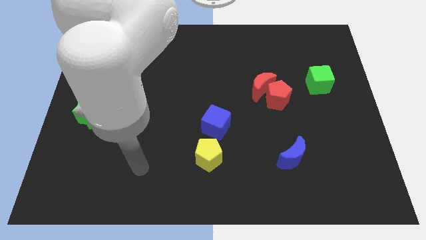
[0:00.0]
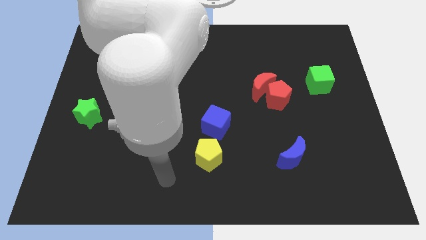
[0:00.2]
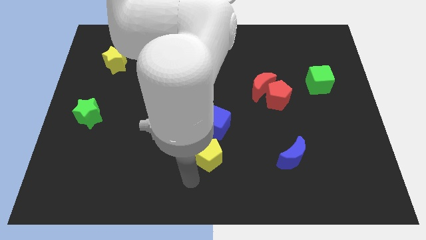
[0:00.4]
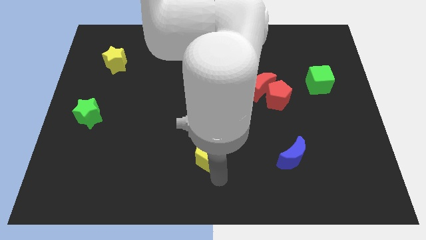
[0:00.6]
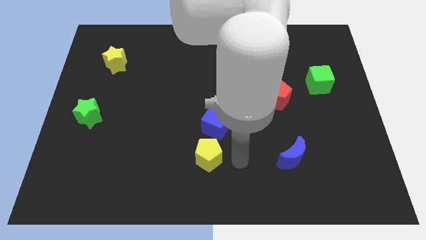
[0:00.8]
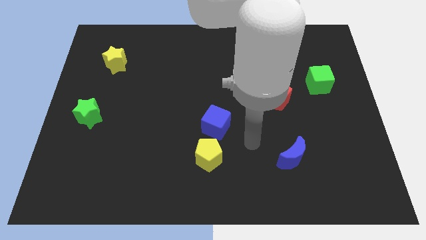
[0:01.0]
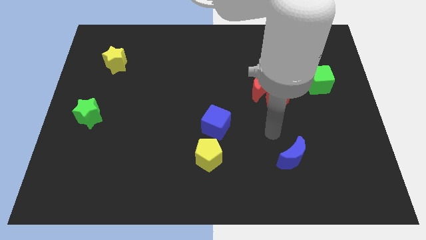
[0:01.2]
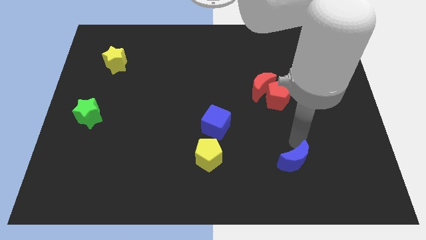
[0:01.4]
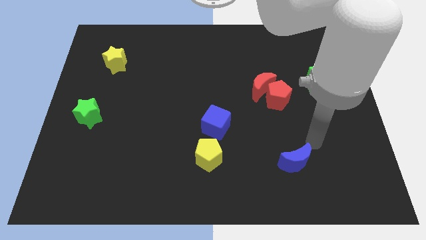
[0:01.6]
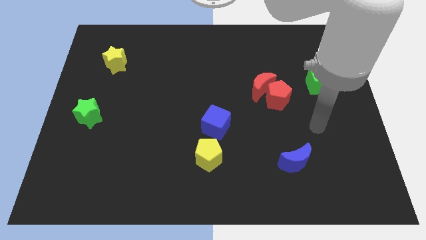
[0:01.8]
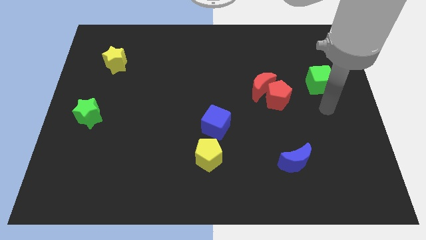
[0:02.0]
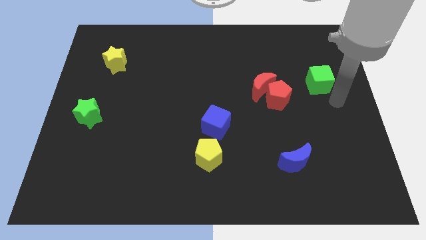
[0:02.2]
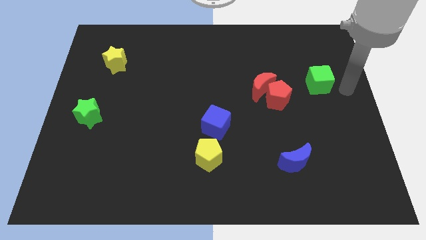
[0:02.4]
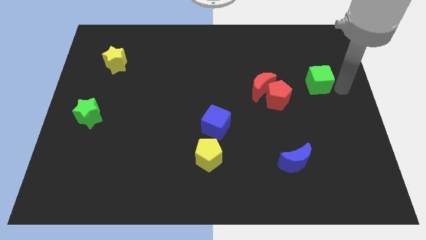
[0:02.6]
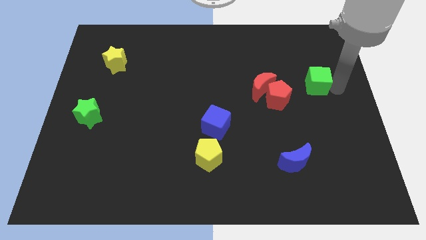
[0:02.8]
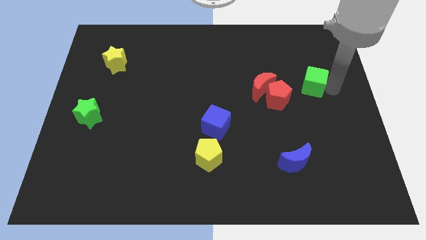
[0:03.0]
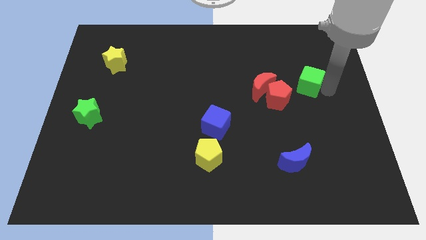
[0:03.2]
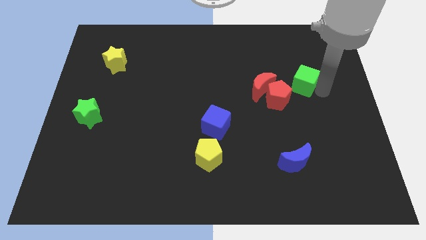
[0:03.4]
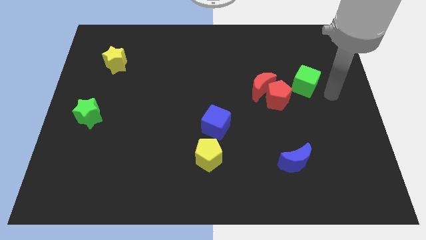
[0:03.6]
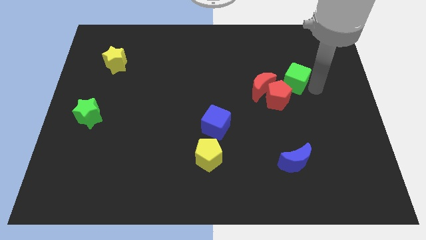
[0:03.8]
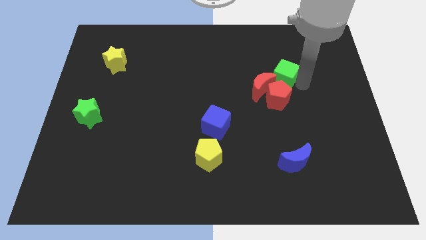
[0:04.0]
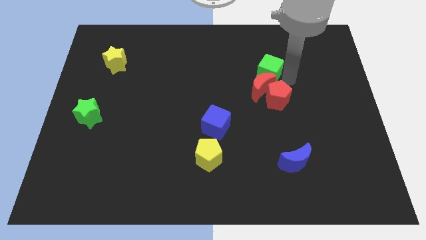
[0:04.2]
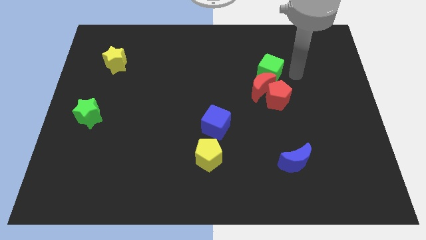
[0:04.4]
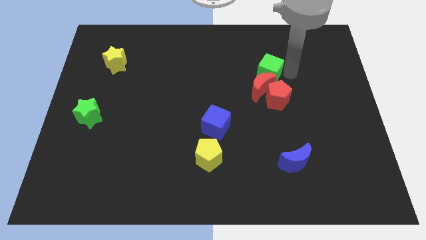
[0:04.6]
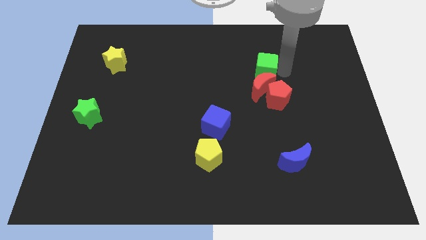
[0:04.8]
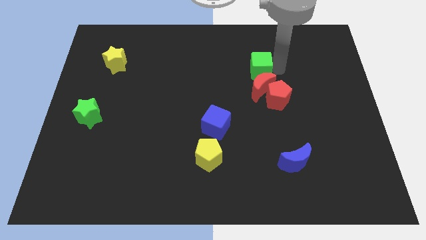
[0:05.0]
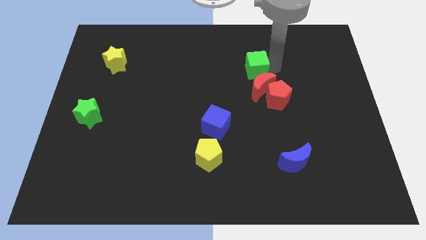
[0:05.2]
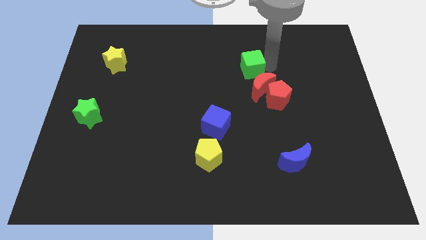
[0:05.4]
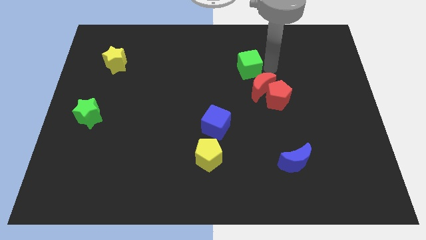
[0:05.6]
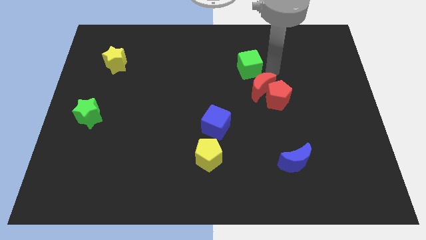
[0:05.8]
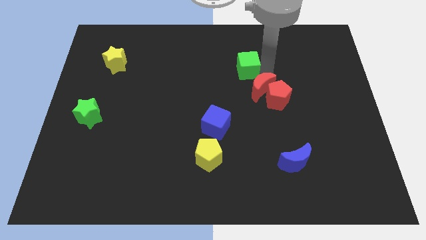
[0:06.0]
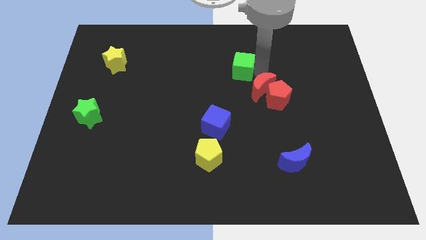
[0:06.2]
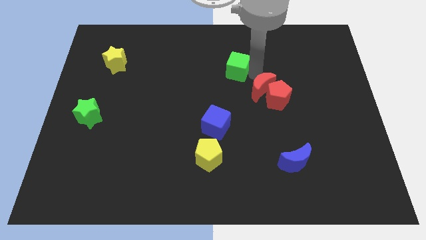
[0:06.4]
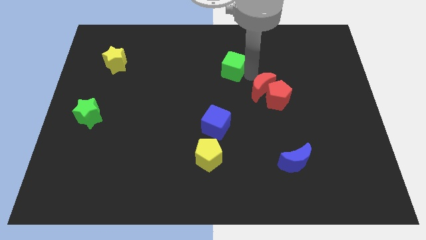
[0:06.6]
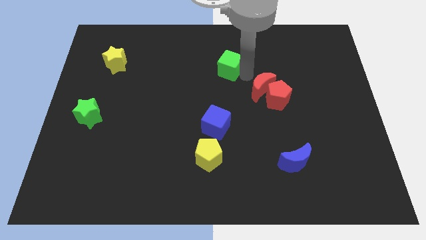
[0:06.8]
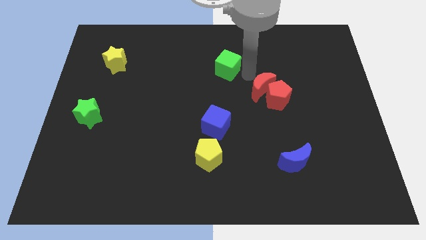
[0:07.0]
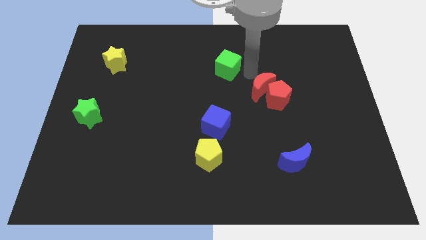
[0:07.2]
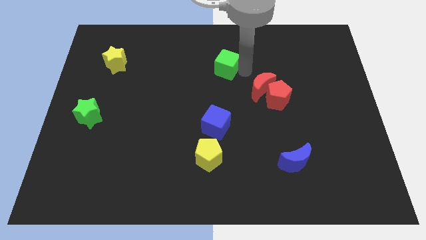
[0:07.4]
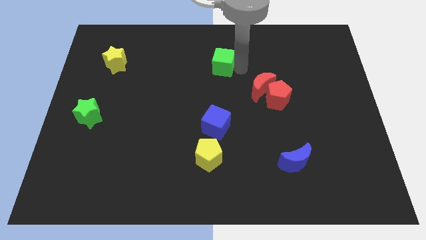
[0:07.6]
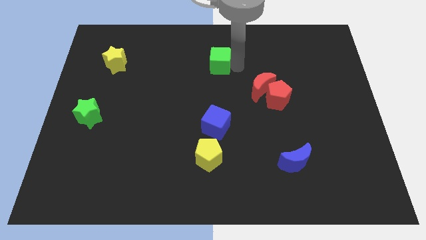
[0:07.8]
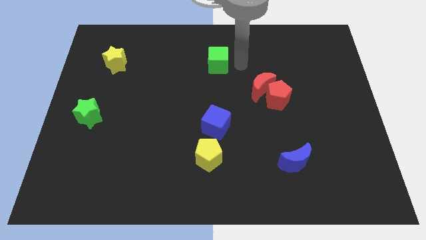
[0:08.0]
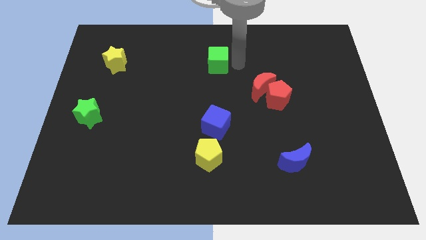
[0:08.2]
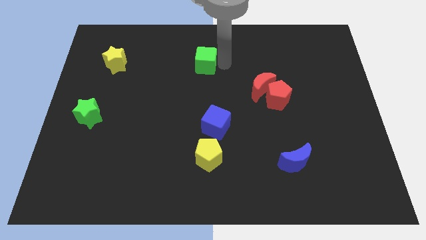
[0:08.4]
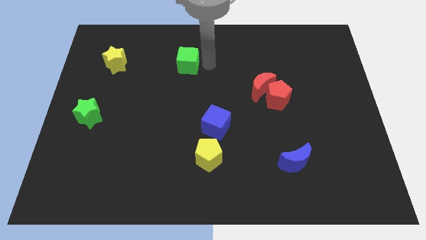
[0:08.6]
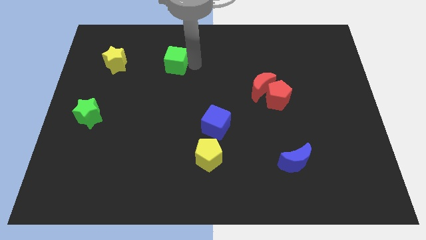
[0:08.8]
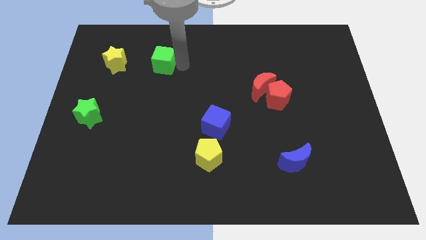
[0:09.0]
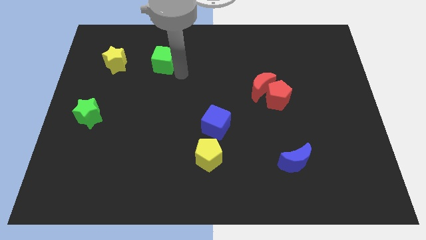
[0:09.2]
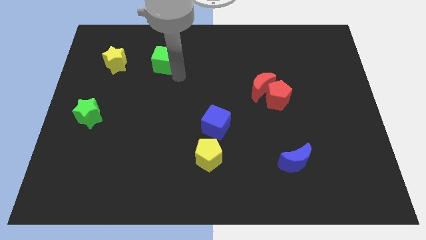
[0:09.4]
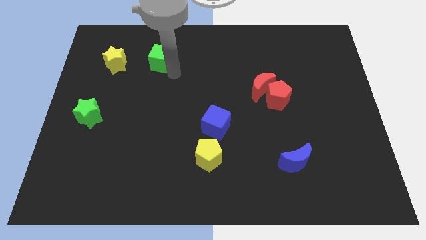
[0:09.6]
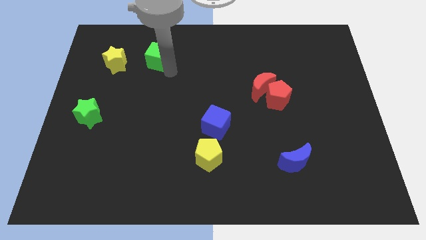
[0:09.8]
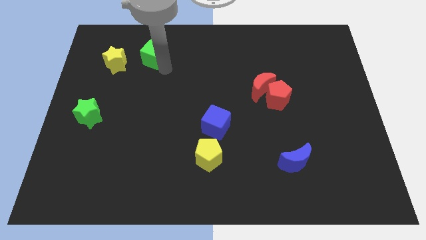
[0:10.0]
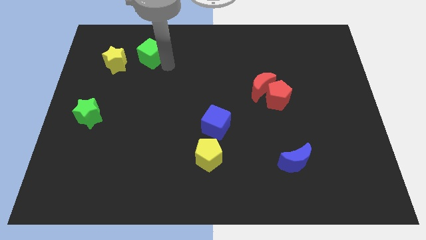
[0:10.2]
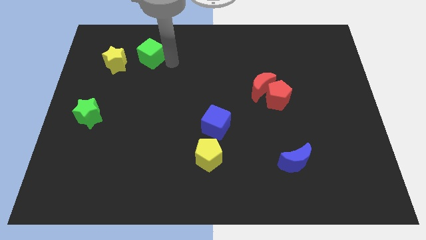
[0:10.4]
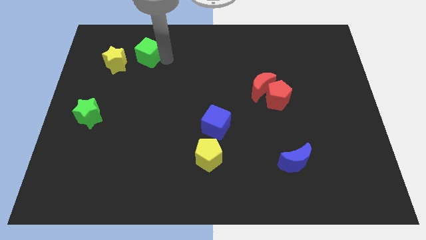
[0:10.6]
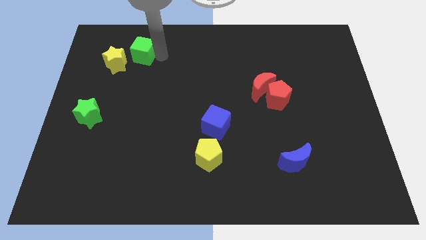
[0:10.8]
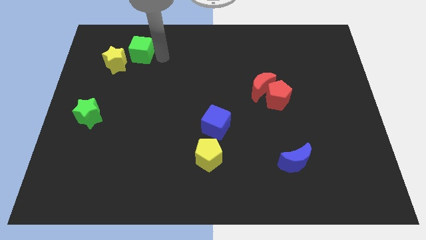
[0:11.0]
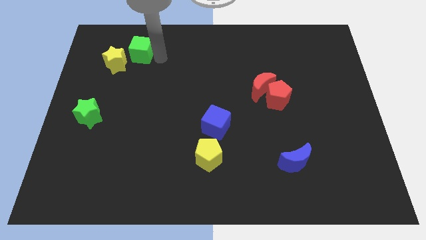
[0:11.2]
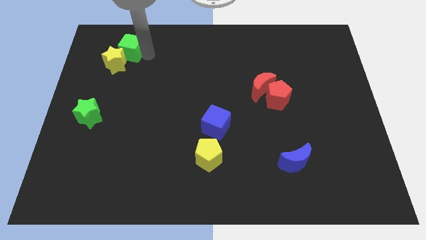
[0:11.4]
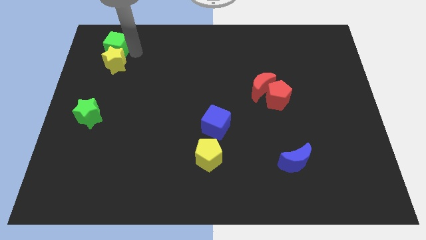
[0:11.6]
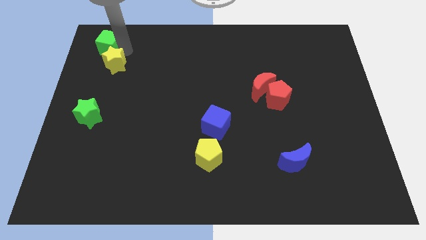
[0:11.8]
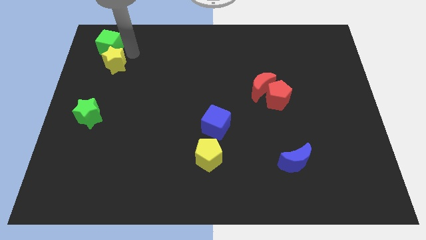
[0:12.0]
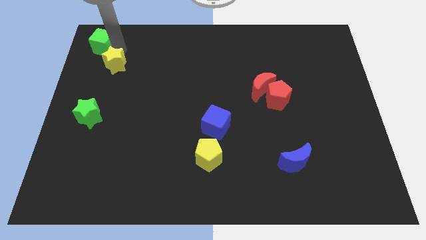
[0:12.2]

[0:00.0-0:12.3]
move the green cube to the top left corner
